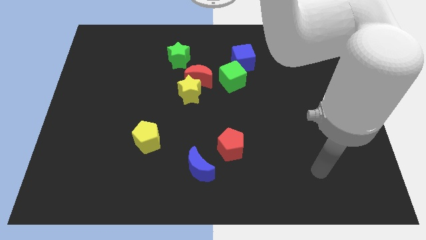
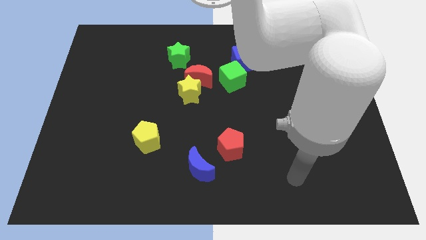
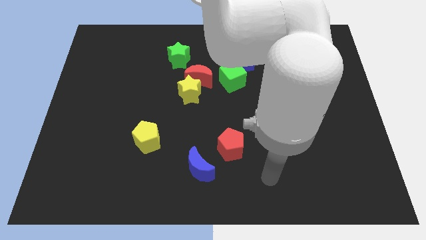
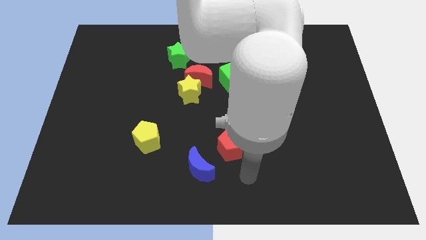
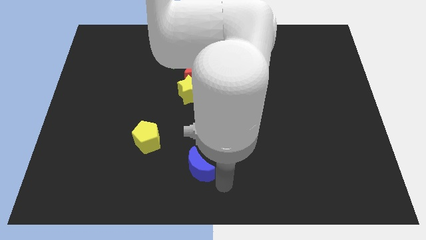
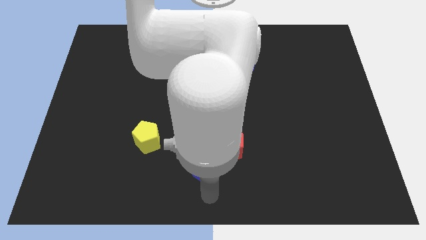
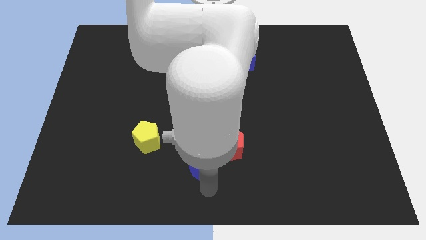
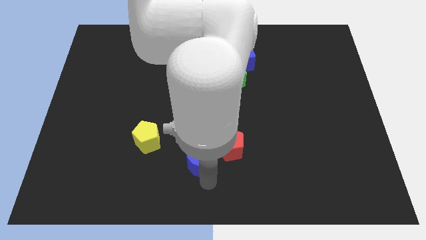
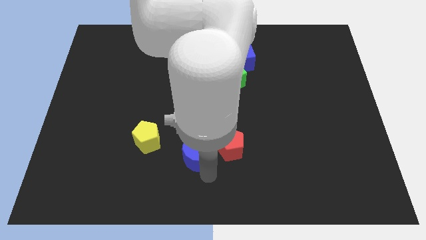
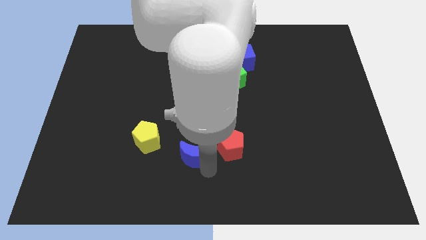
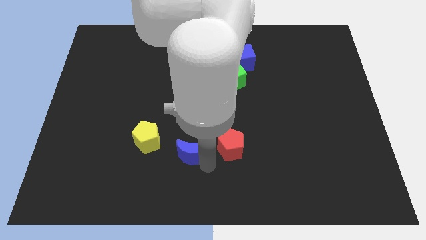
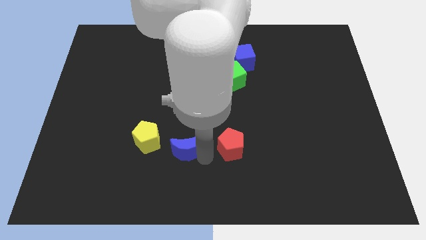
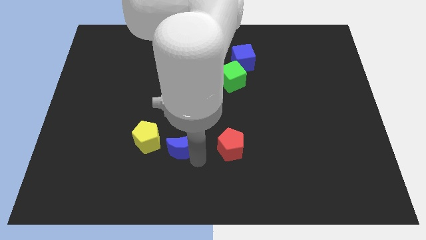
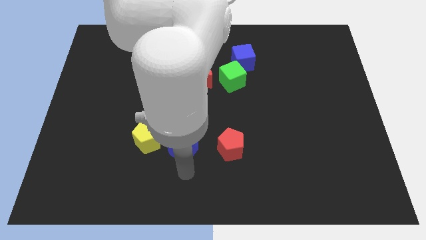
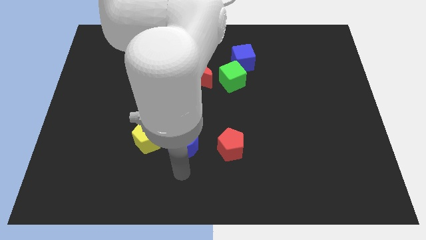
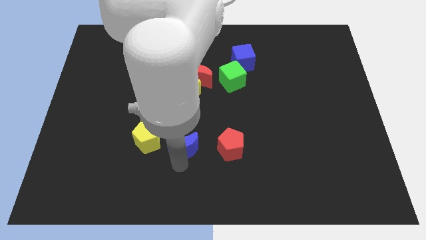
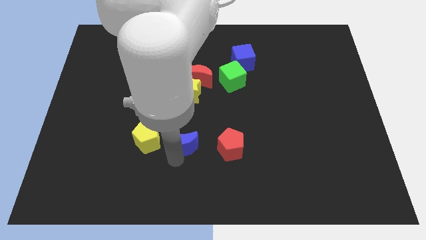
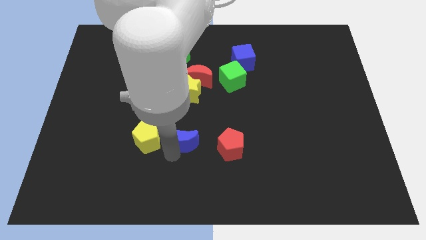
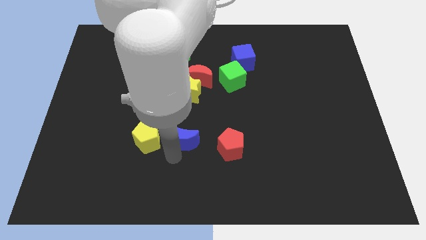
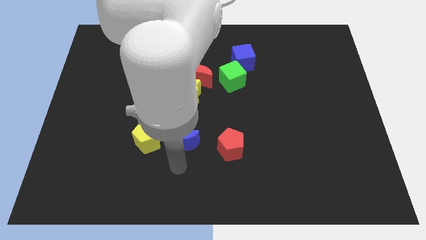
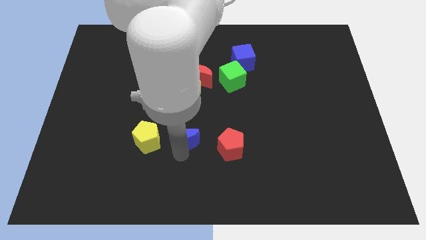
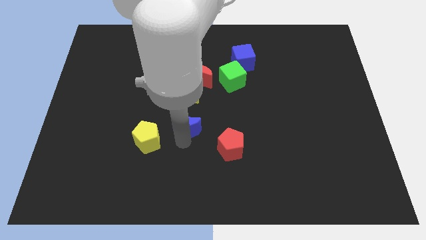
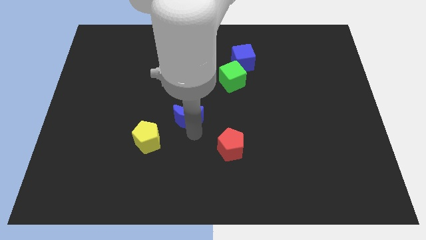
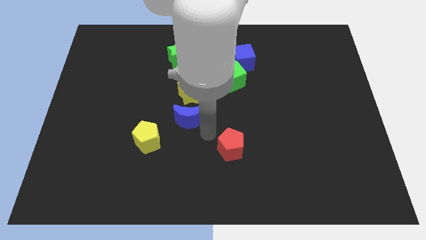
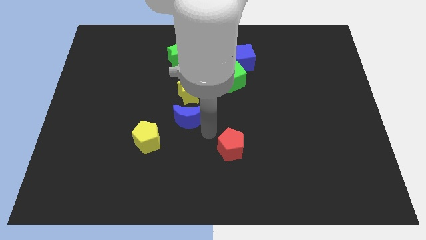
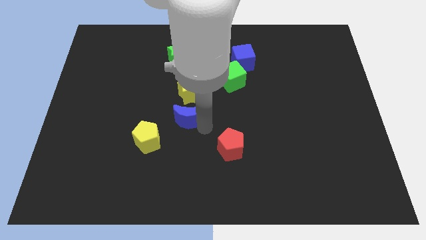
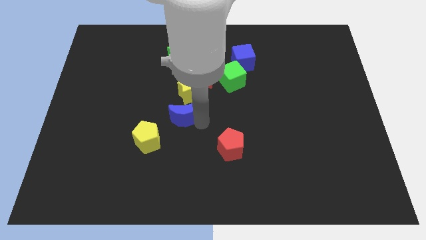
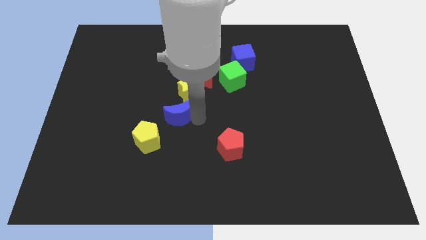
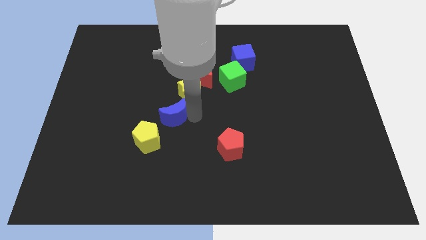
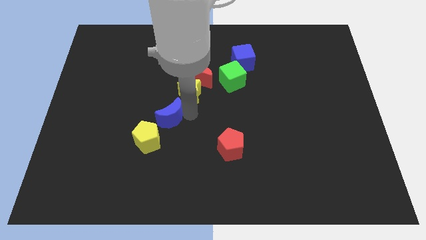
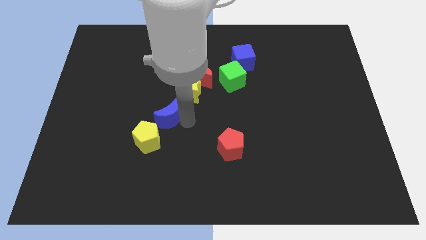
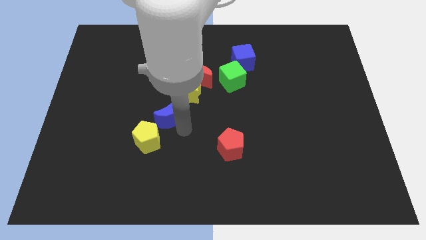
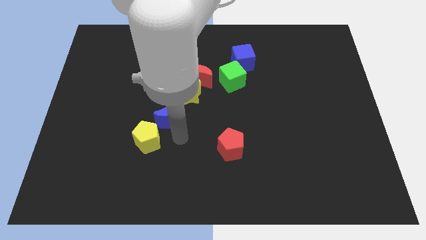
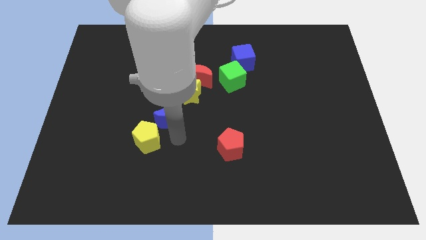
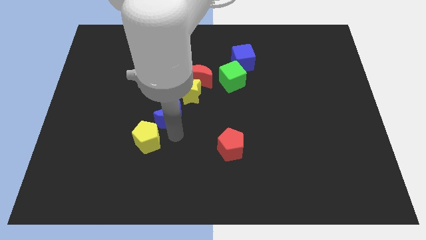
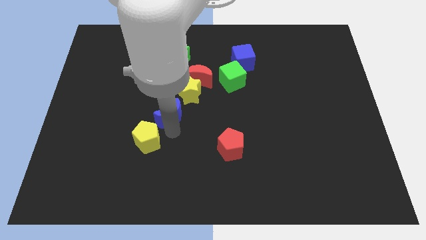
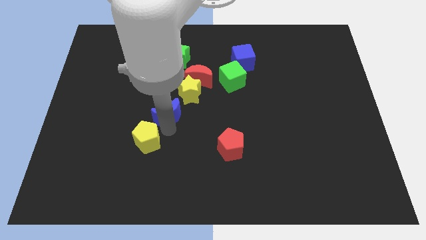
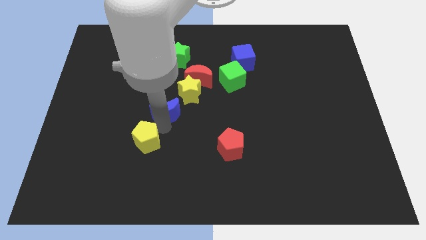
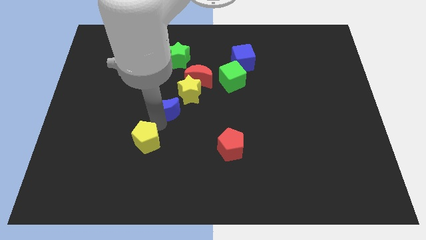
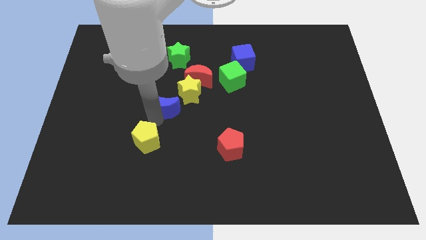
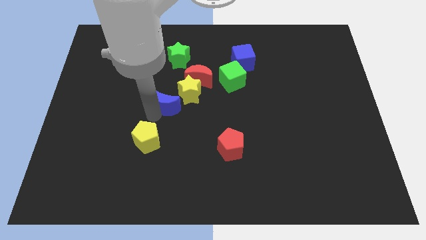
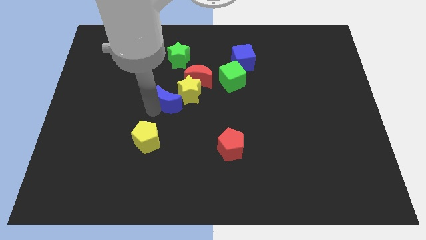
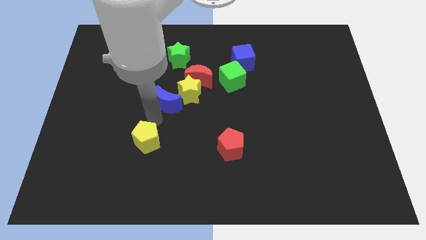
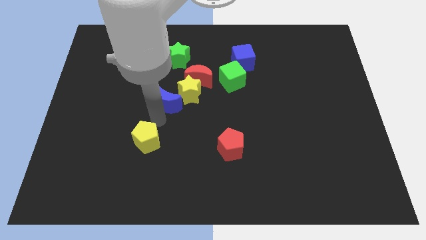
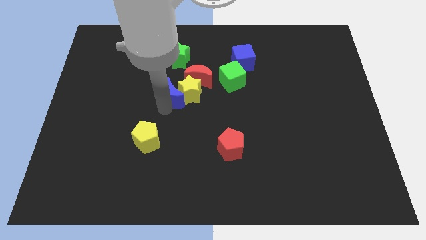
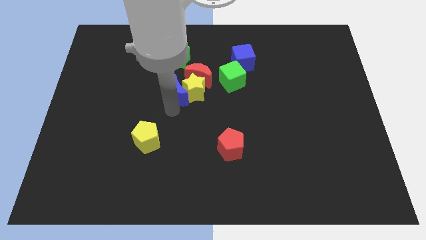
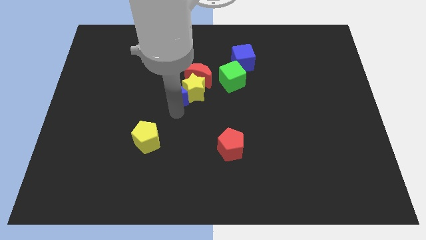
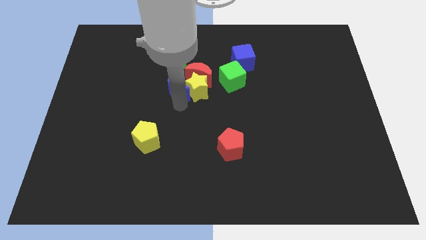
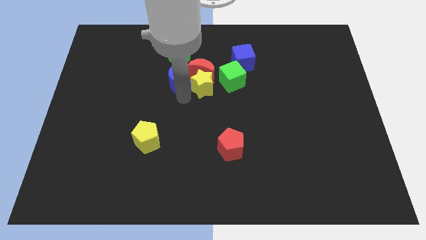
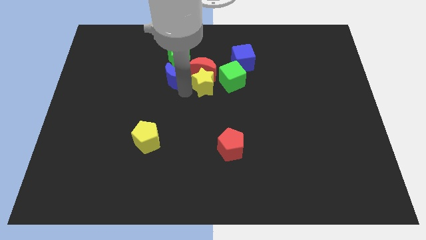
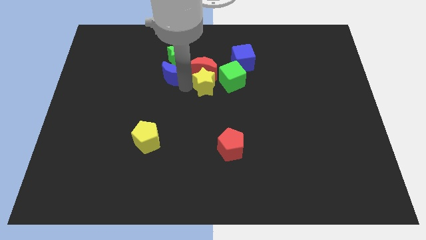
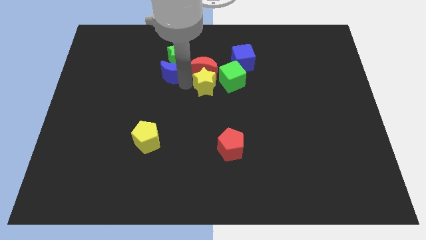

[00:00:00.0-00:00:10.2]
push the blue moon next to the green star
